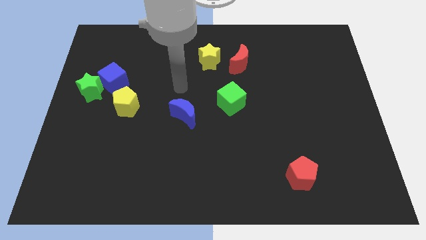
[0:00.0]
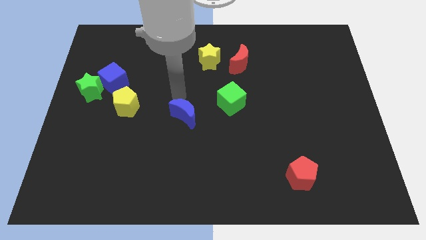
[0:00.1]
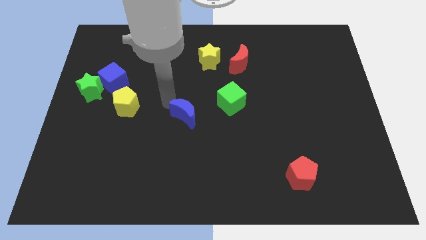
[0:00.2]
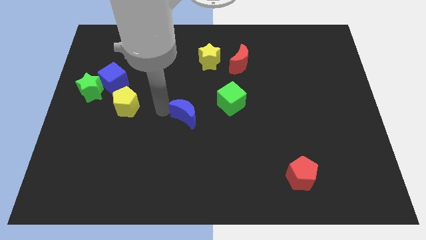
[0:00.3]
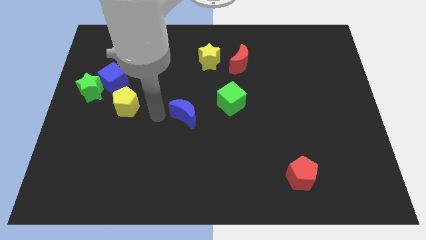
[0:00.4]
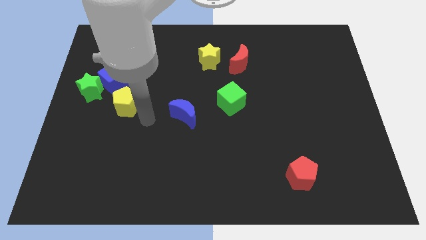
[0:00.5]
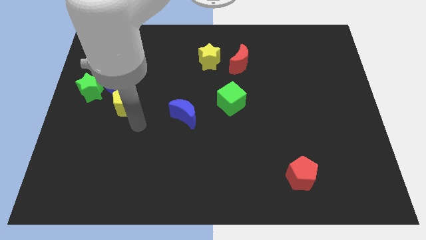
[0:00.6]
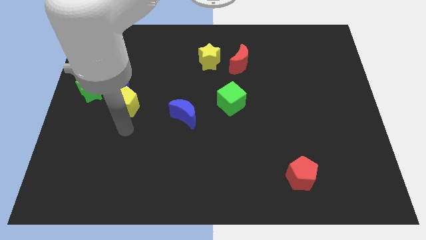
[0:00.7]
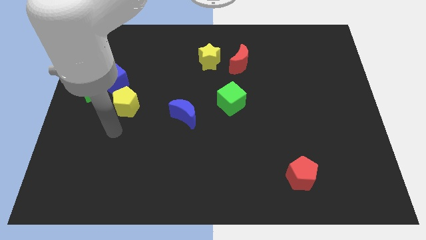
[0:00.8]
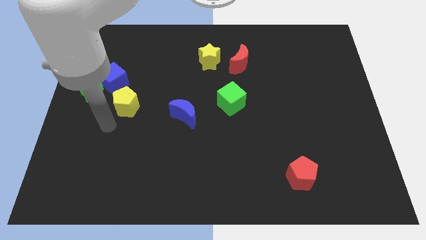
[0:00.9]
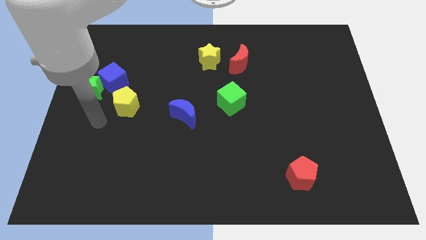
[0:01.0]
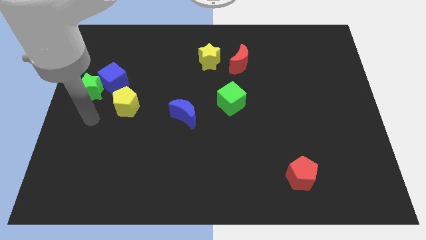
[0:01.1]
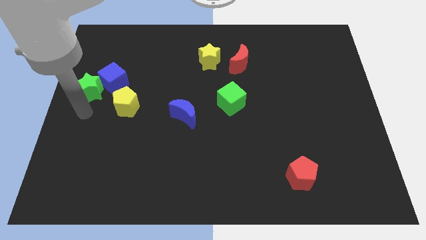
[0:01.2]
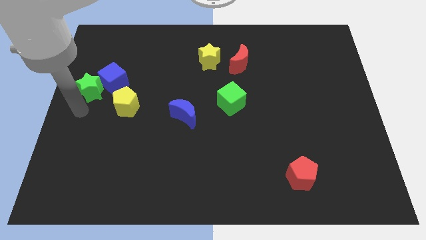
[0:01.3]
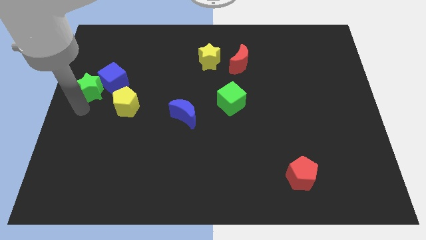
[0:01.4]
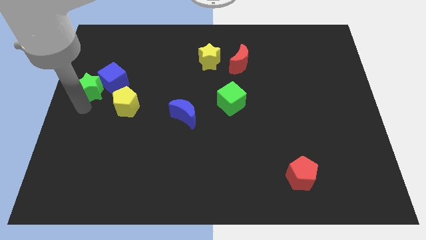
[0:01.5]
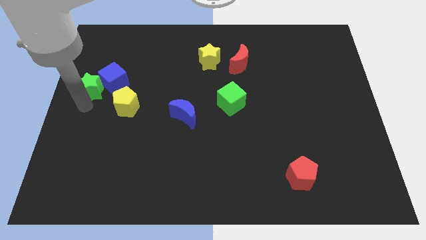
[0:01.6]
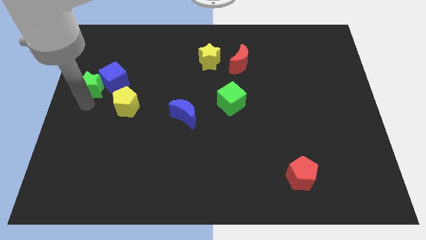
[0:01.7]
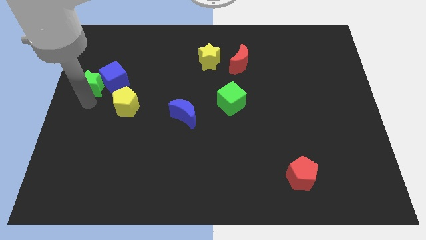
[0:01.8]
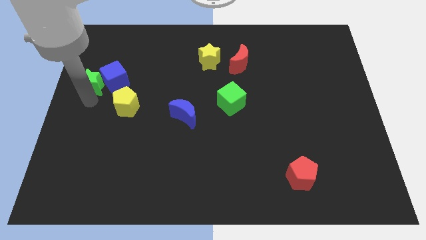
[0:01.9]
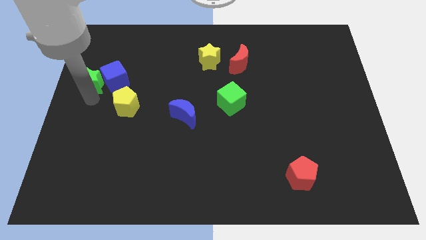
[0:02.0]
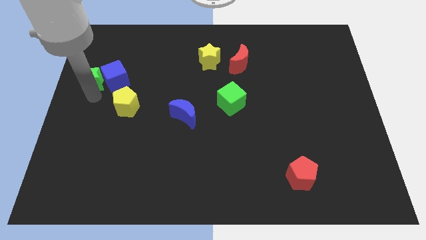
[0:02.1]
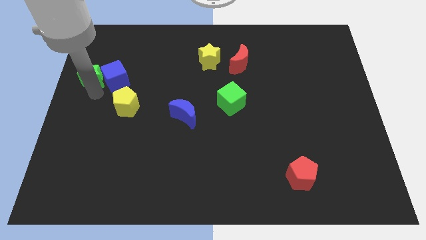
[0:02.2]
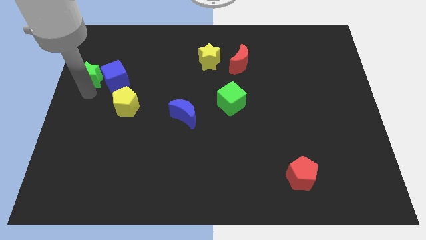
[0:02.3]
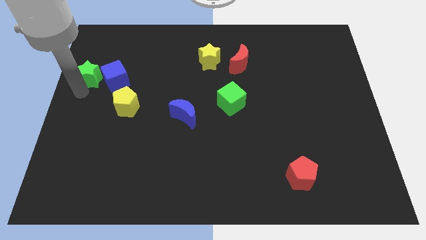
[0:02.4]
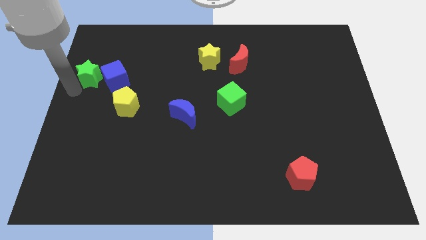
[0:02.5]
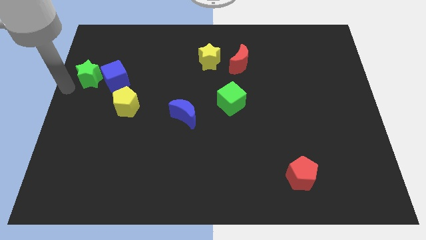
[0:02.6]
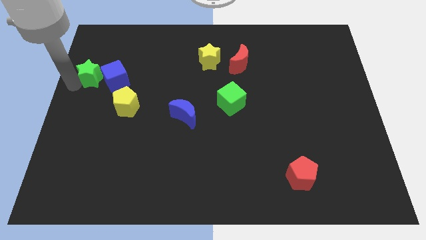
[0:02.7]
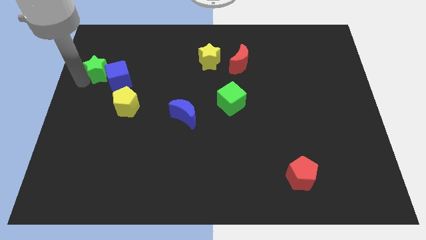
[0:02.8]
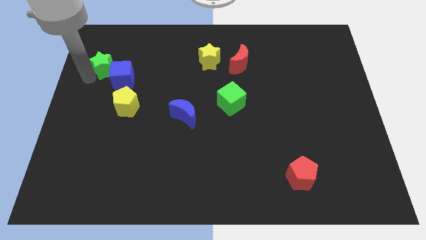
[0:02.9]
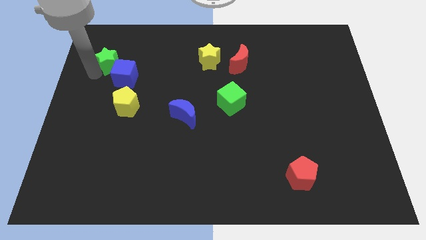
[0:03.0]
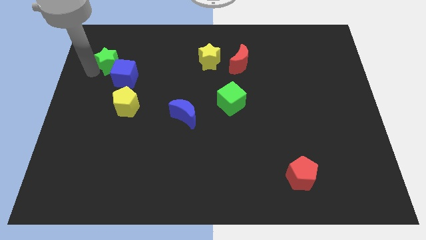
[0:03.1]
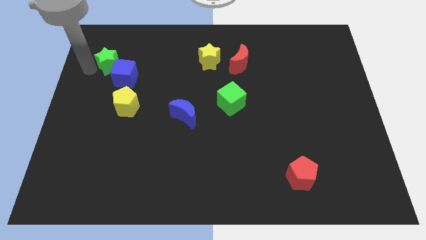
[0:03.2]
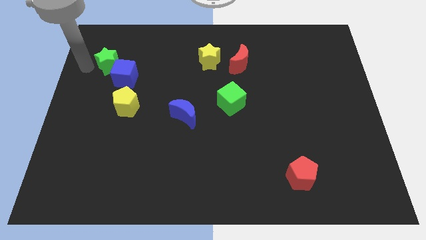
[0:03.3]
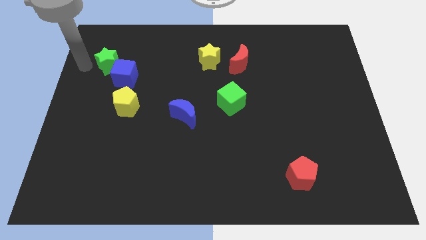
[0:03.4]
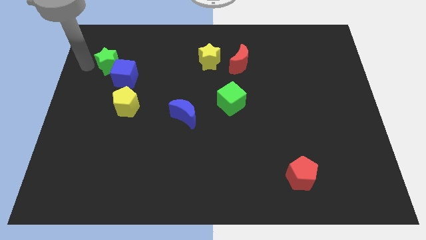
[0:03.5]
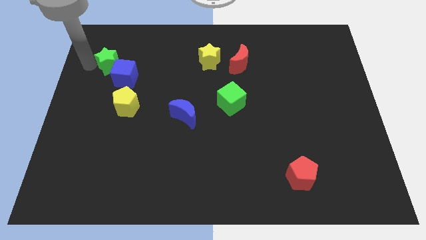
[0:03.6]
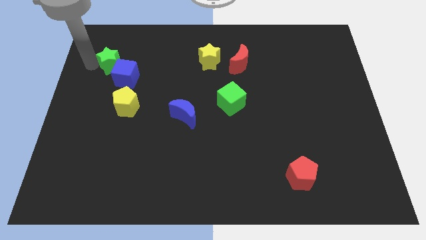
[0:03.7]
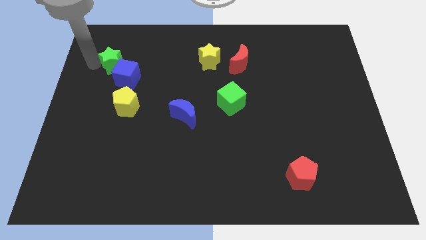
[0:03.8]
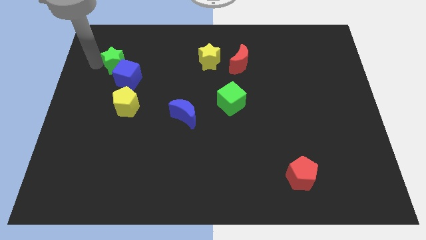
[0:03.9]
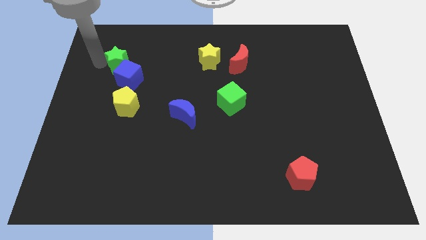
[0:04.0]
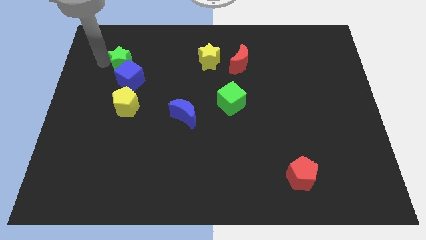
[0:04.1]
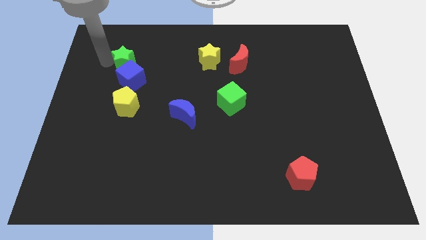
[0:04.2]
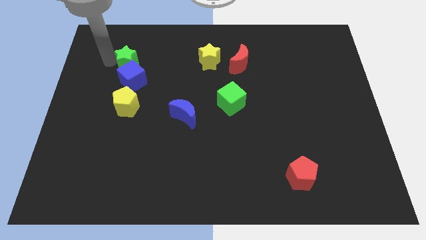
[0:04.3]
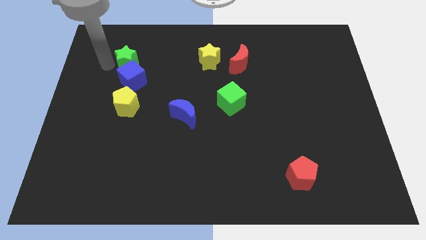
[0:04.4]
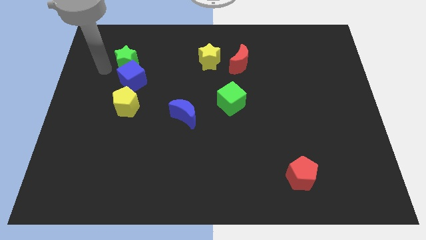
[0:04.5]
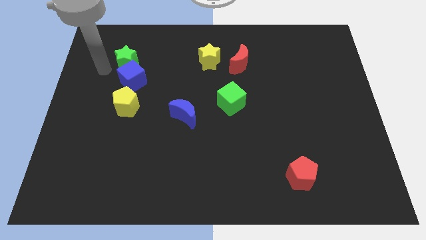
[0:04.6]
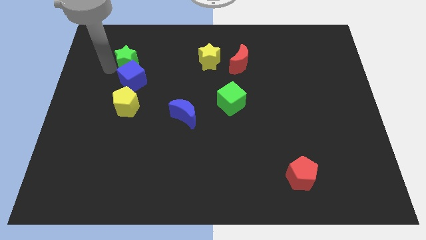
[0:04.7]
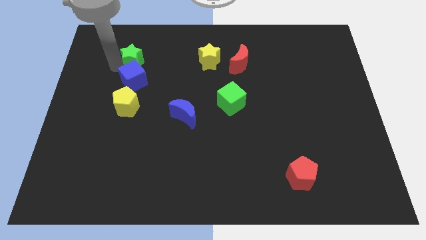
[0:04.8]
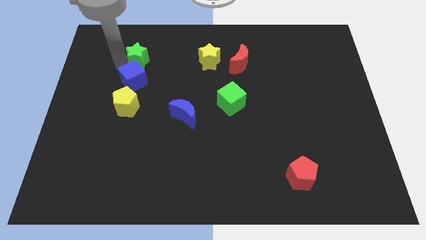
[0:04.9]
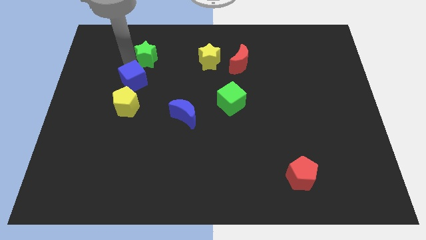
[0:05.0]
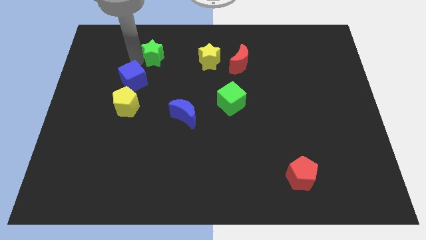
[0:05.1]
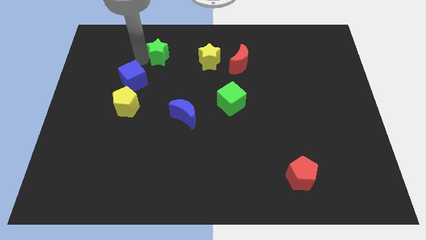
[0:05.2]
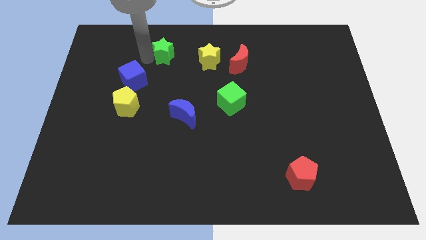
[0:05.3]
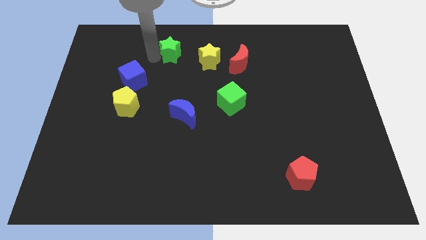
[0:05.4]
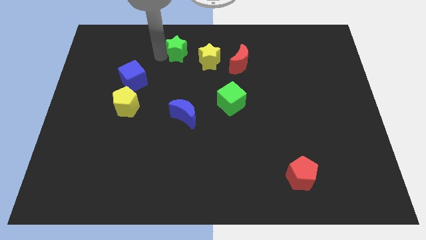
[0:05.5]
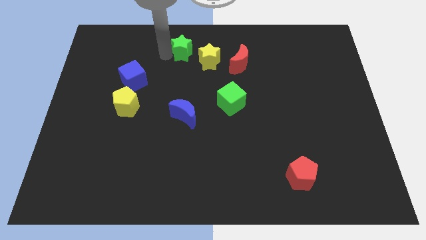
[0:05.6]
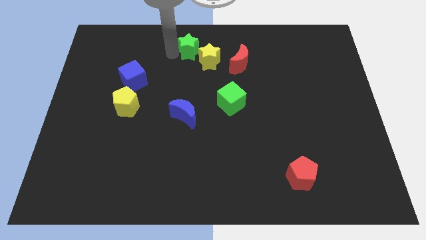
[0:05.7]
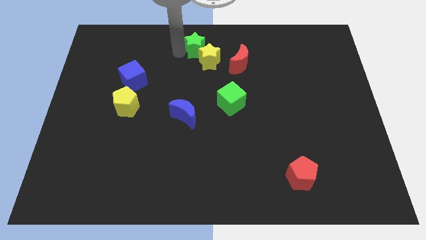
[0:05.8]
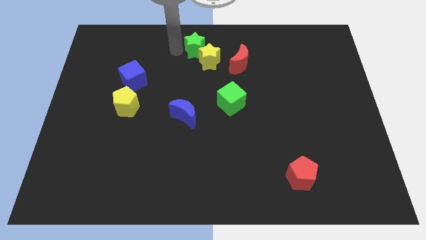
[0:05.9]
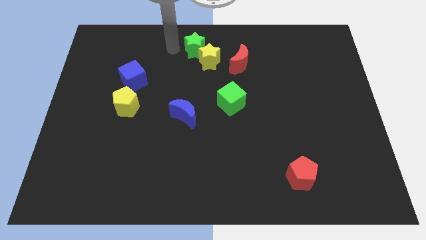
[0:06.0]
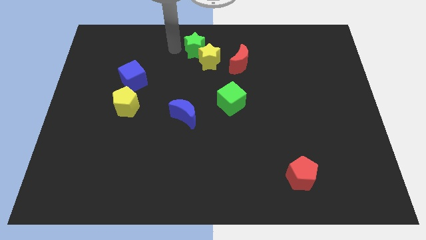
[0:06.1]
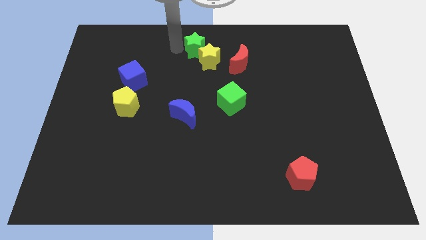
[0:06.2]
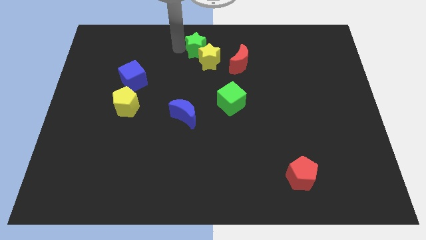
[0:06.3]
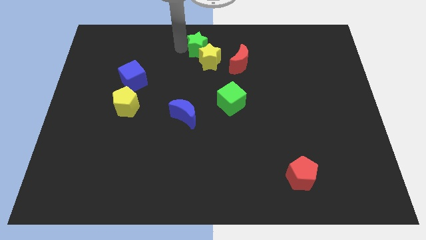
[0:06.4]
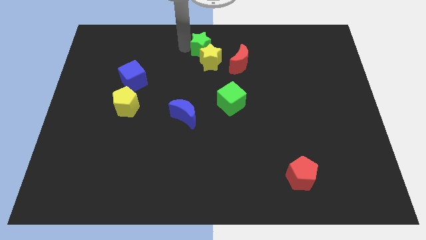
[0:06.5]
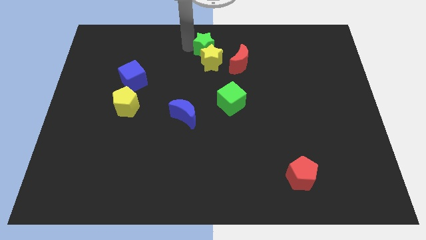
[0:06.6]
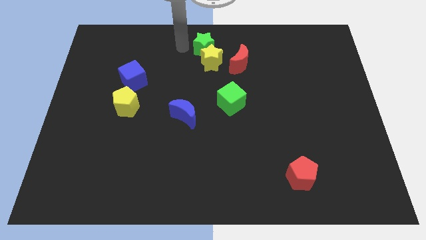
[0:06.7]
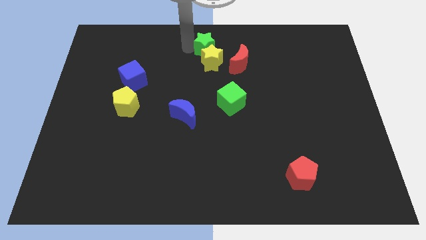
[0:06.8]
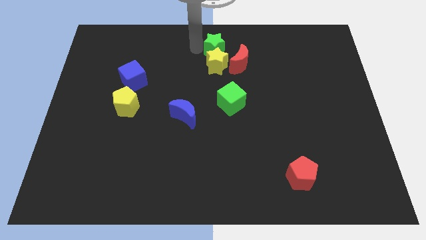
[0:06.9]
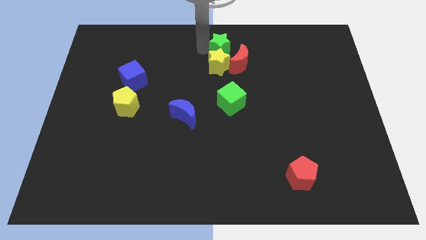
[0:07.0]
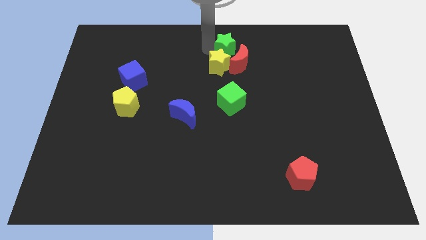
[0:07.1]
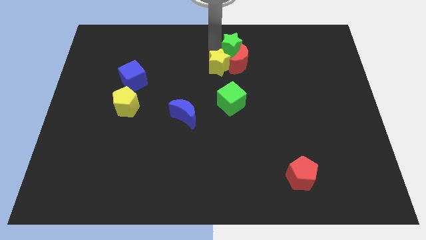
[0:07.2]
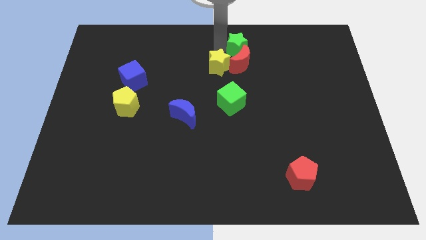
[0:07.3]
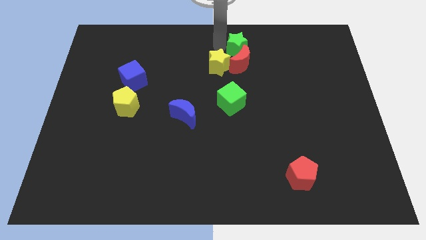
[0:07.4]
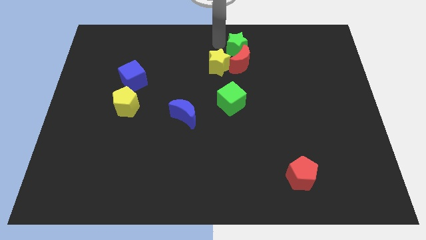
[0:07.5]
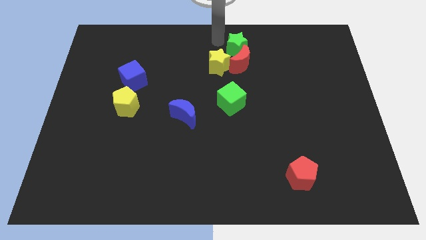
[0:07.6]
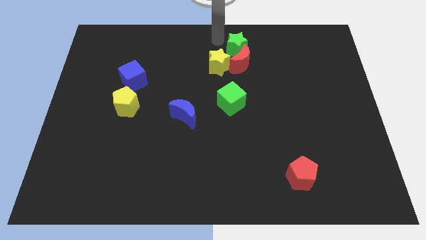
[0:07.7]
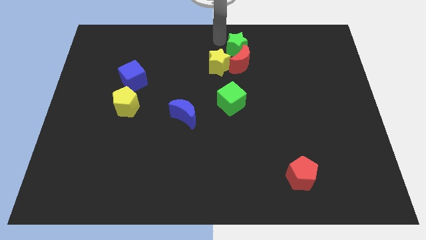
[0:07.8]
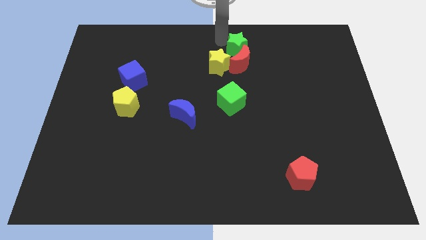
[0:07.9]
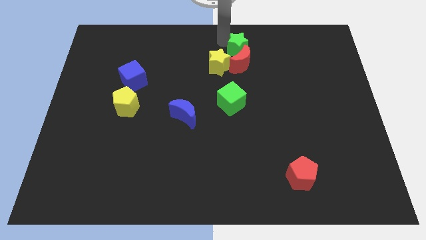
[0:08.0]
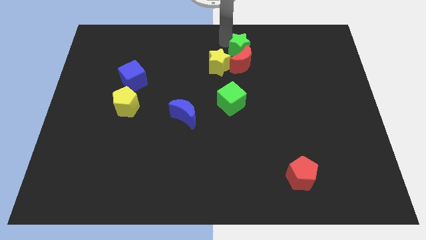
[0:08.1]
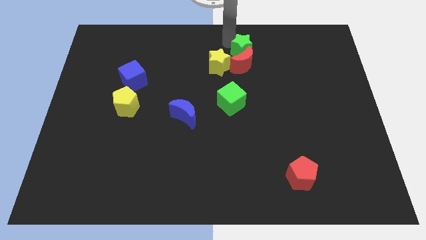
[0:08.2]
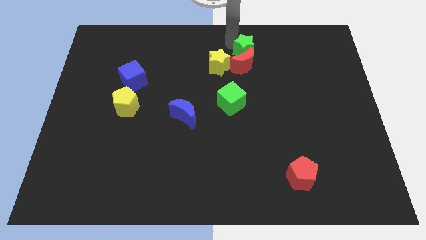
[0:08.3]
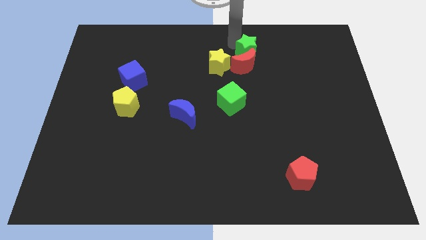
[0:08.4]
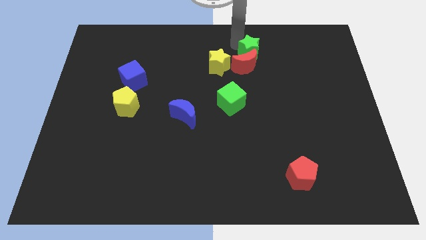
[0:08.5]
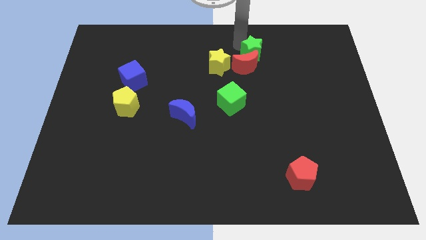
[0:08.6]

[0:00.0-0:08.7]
move the green star to the right side of the yellow star
